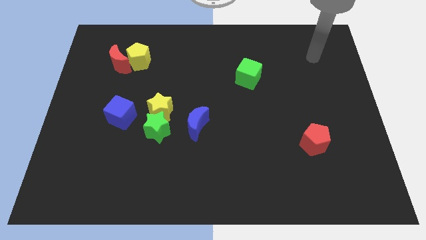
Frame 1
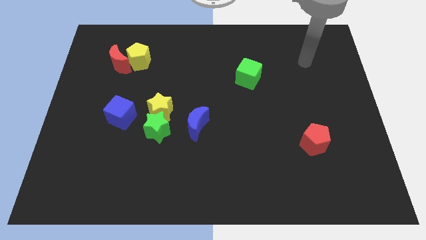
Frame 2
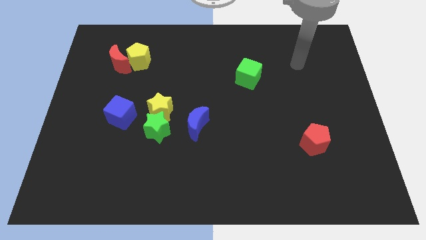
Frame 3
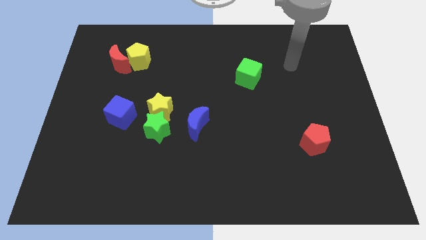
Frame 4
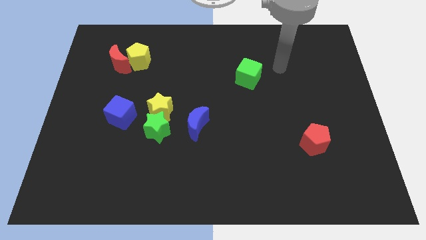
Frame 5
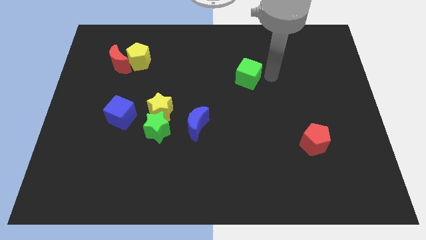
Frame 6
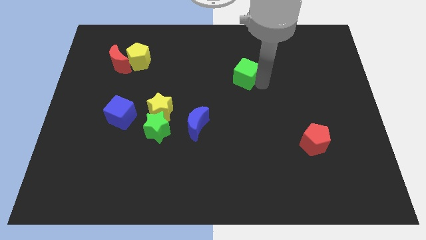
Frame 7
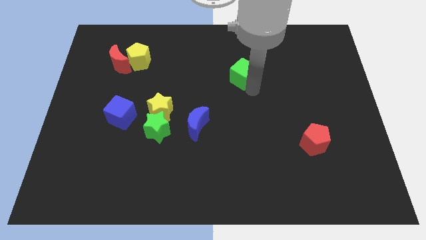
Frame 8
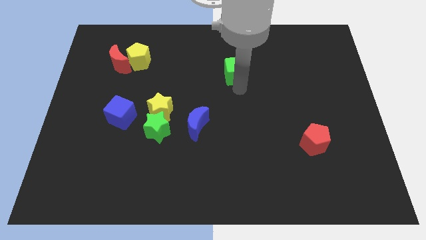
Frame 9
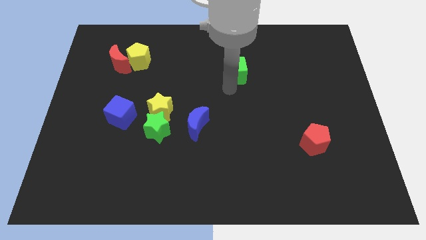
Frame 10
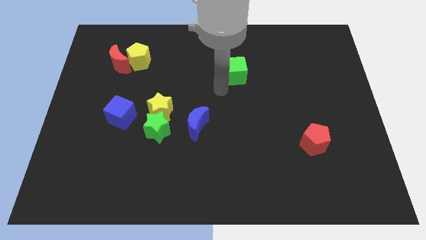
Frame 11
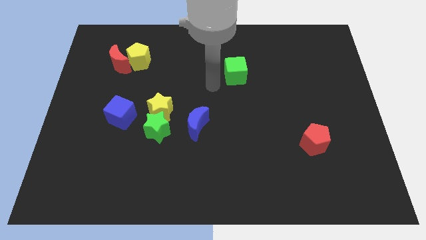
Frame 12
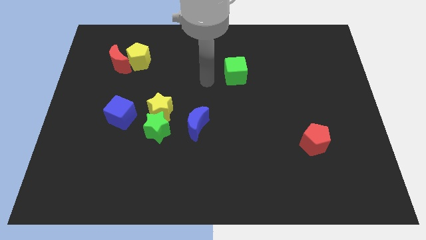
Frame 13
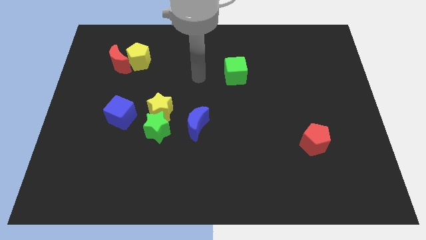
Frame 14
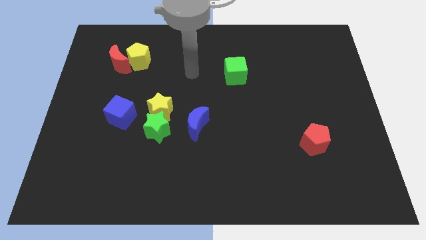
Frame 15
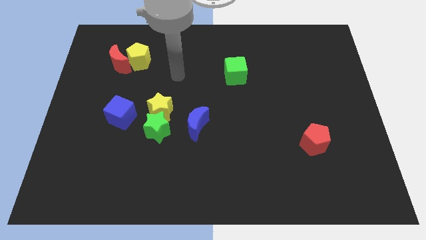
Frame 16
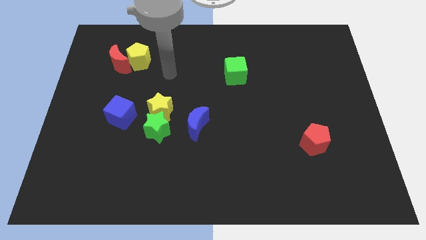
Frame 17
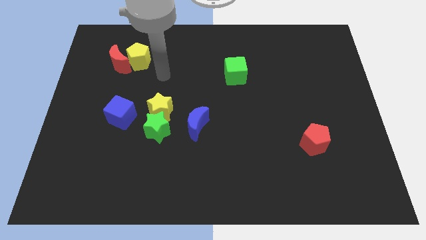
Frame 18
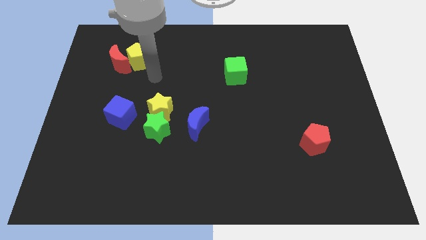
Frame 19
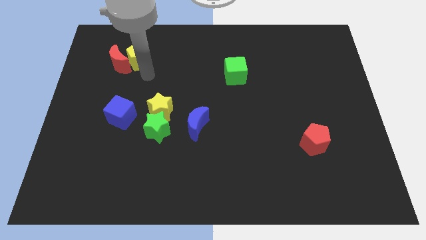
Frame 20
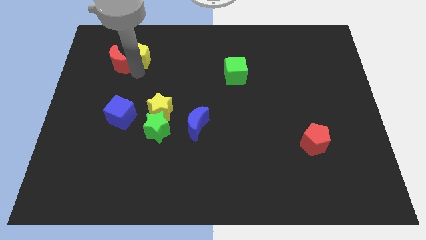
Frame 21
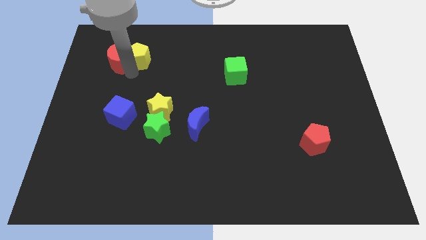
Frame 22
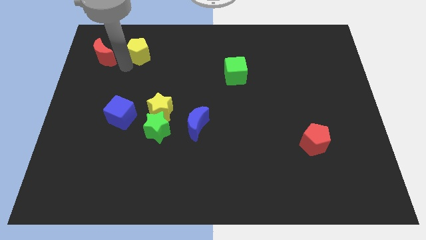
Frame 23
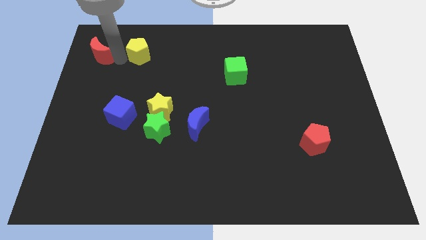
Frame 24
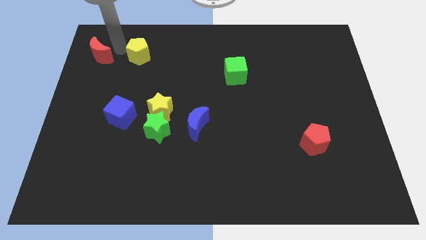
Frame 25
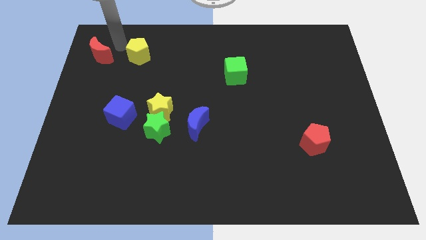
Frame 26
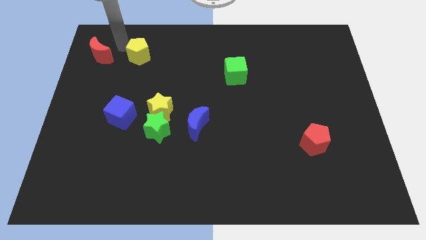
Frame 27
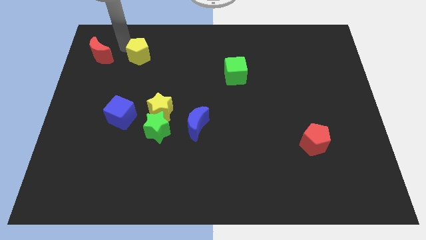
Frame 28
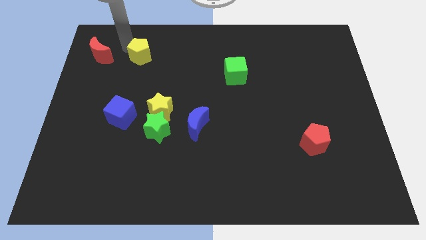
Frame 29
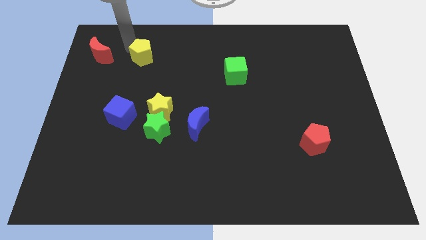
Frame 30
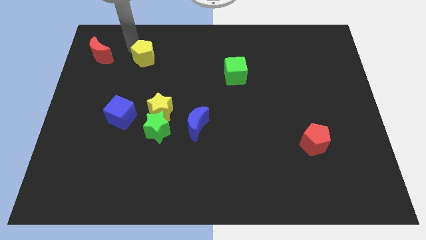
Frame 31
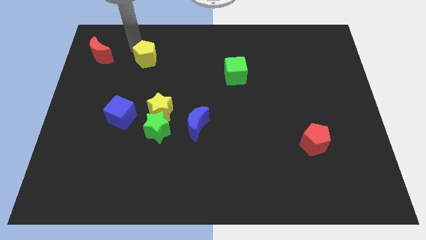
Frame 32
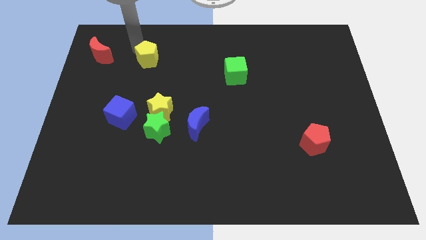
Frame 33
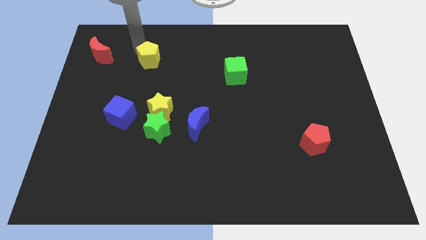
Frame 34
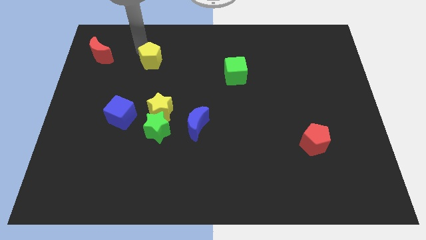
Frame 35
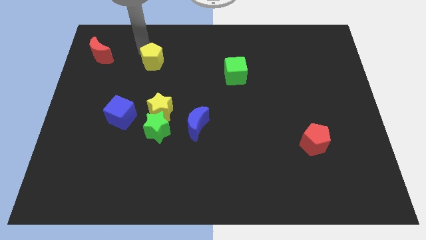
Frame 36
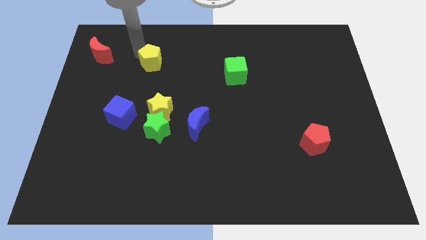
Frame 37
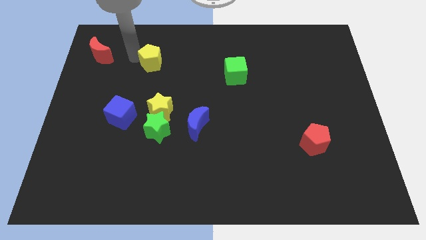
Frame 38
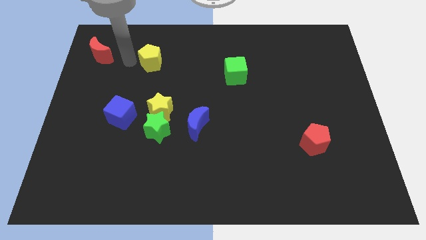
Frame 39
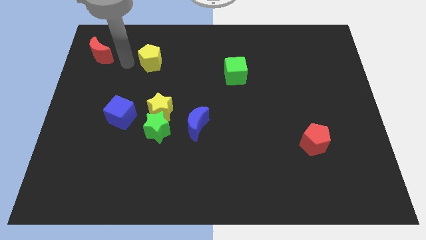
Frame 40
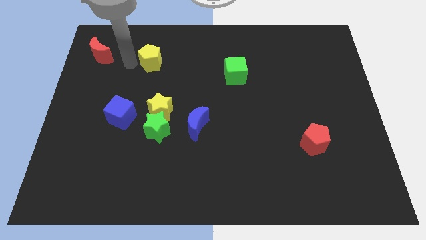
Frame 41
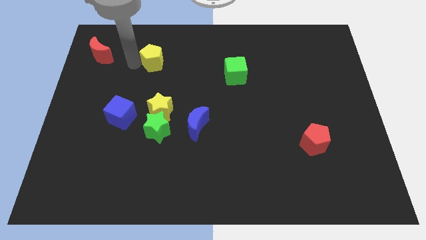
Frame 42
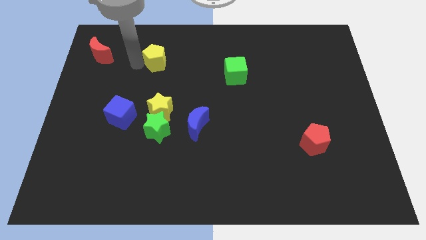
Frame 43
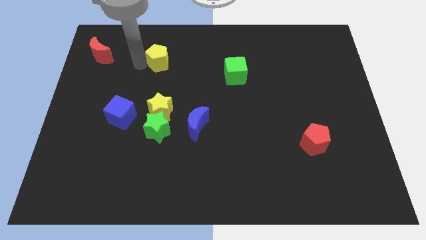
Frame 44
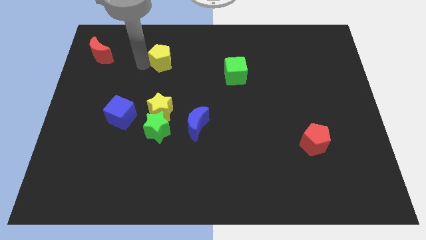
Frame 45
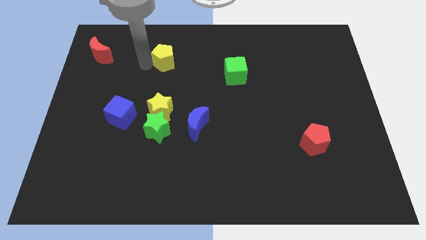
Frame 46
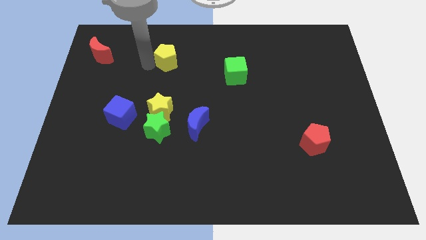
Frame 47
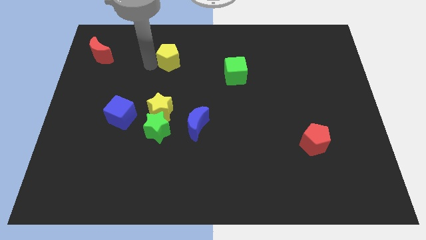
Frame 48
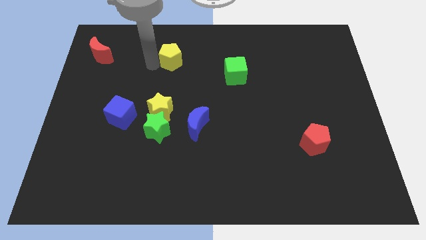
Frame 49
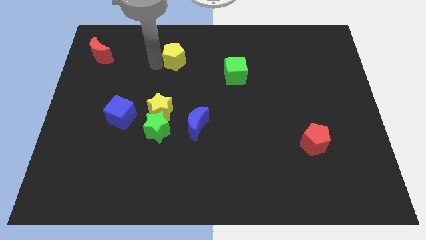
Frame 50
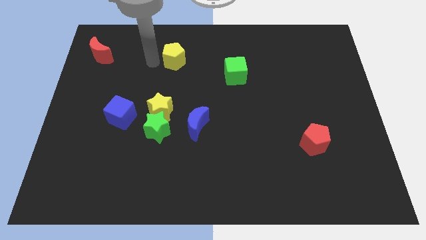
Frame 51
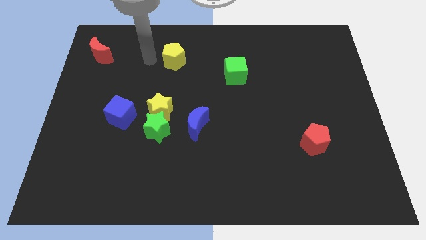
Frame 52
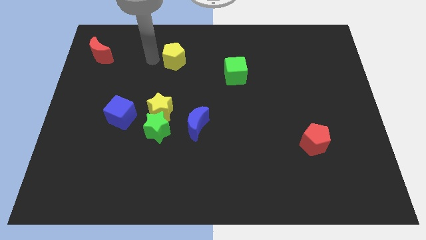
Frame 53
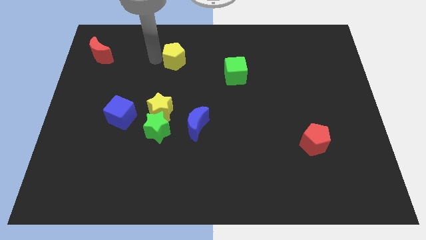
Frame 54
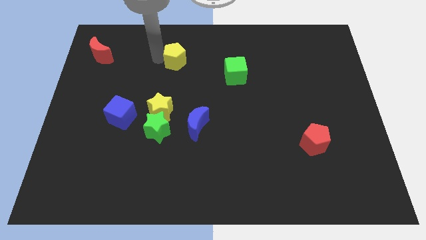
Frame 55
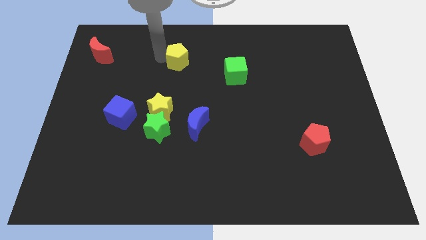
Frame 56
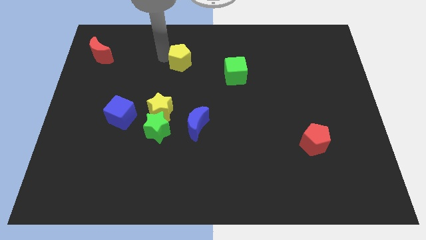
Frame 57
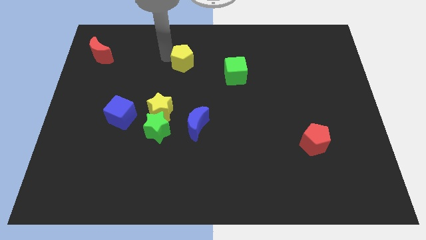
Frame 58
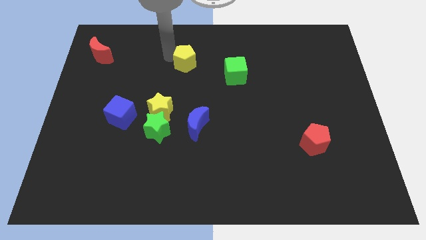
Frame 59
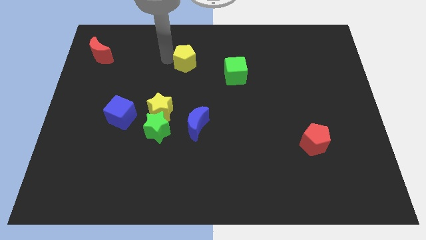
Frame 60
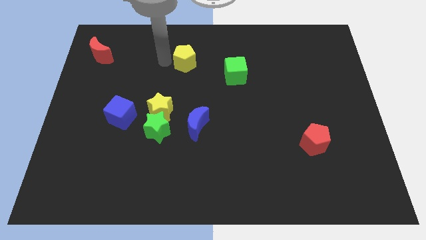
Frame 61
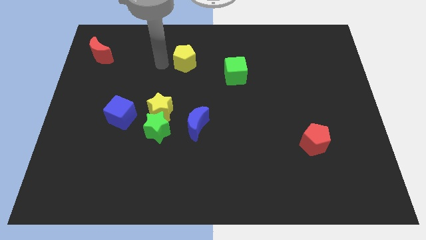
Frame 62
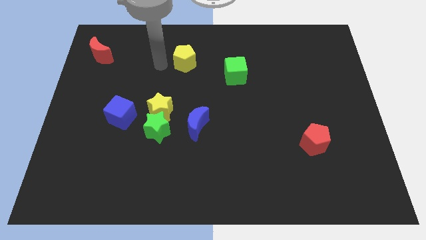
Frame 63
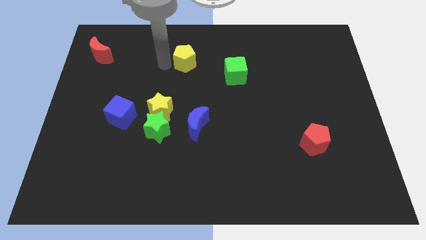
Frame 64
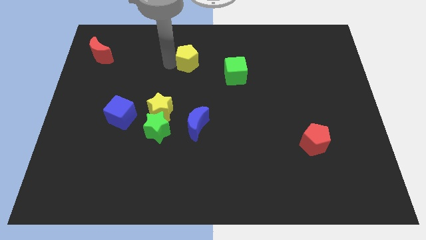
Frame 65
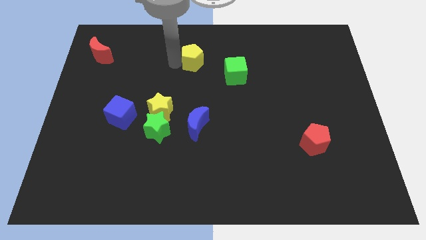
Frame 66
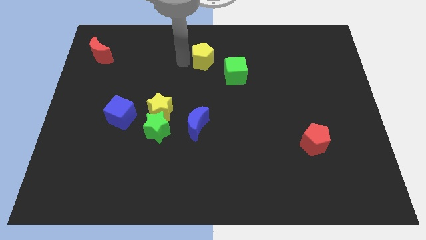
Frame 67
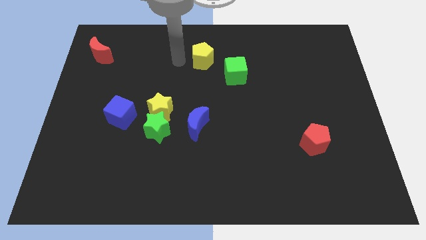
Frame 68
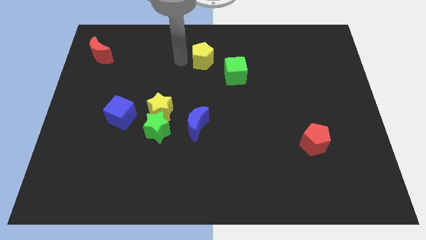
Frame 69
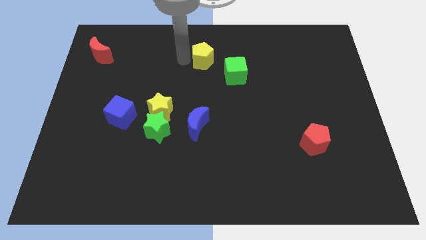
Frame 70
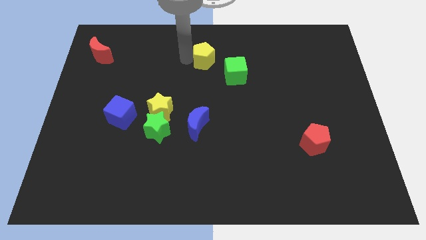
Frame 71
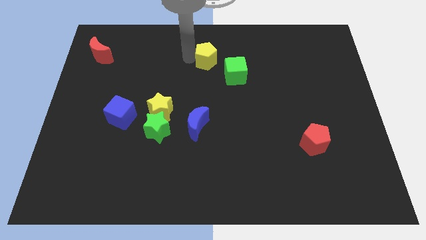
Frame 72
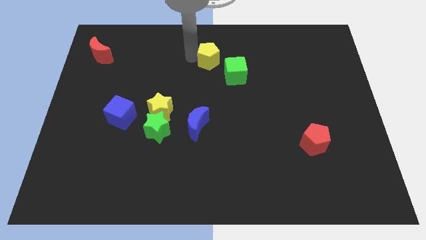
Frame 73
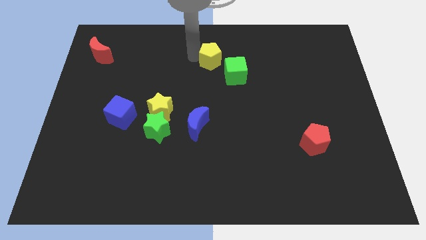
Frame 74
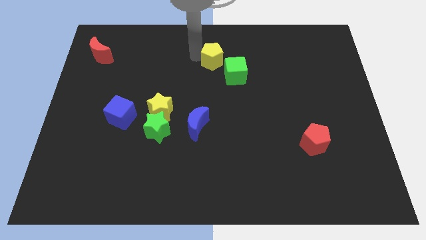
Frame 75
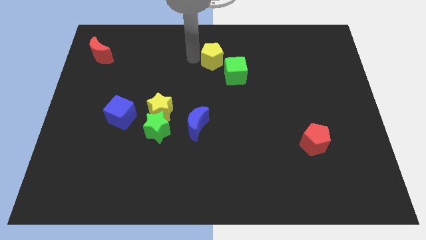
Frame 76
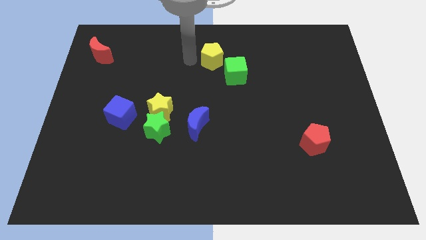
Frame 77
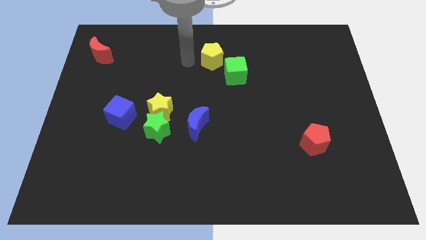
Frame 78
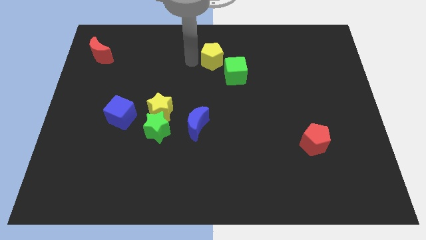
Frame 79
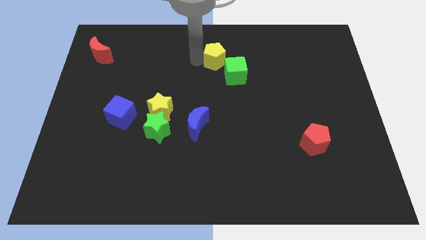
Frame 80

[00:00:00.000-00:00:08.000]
slide the yellow pentagon right

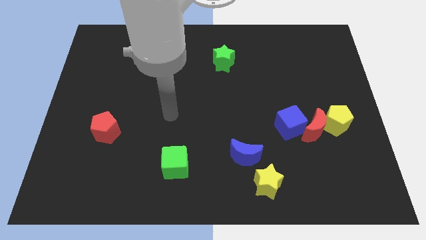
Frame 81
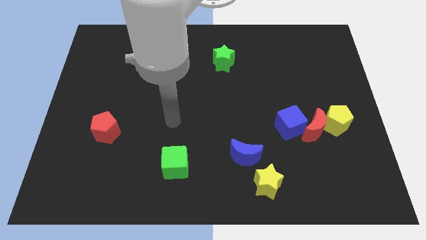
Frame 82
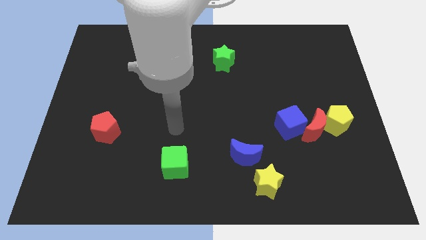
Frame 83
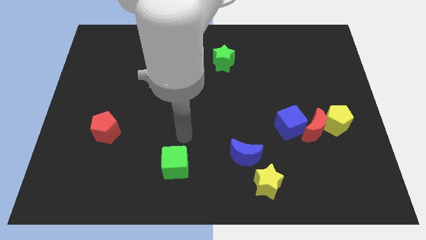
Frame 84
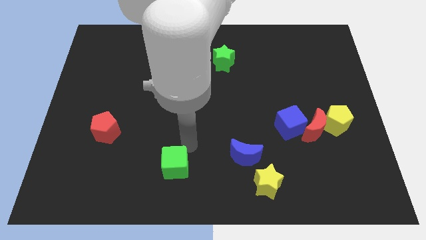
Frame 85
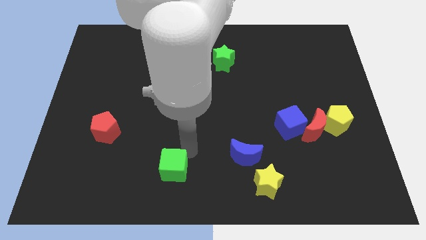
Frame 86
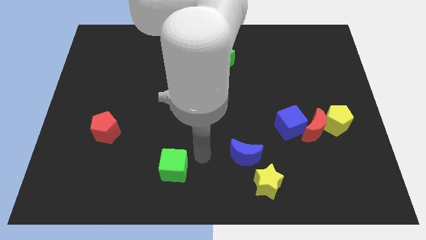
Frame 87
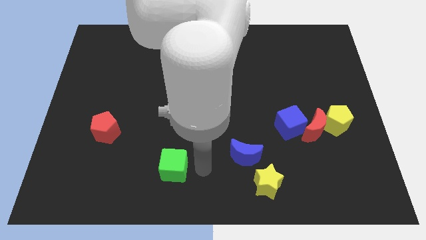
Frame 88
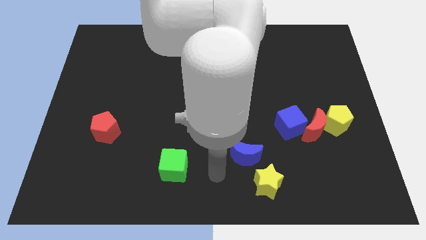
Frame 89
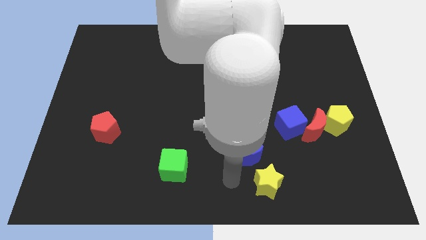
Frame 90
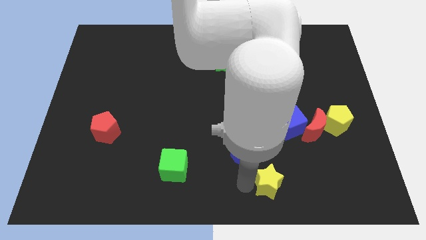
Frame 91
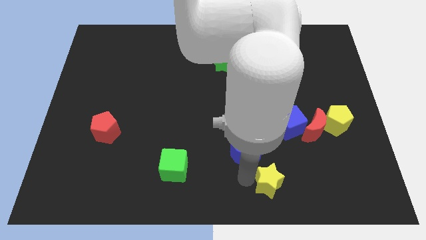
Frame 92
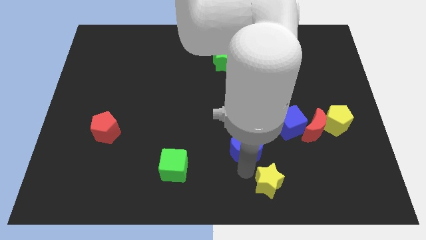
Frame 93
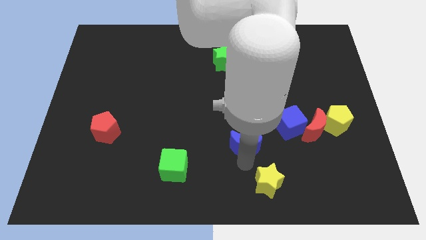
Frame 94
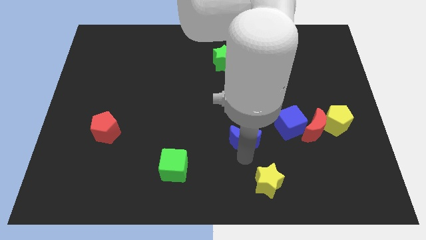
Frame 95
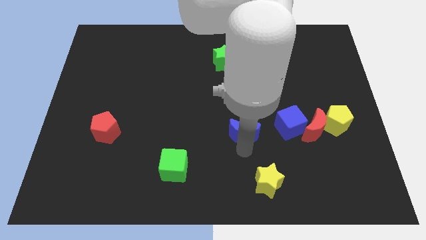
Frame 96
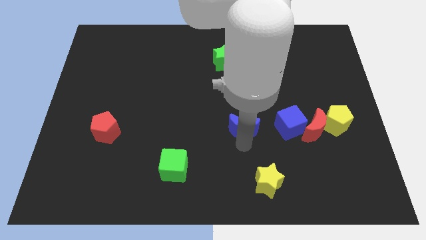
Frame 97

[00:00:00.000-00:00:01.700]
slightly move the blue moon upwards
